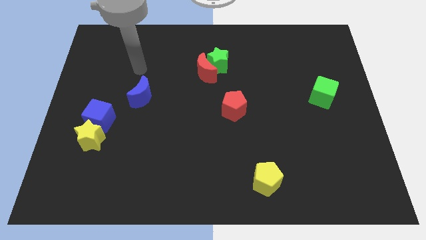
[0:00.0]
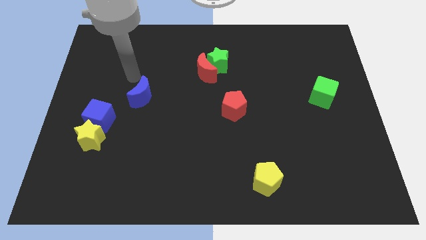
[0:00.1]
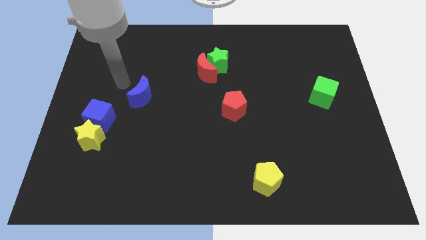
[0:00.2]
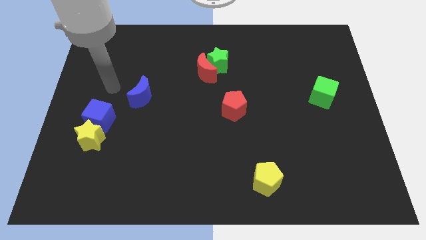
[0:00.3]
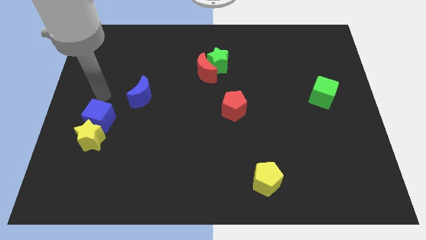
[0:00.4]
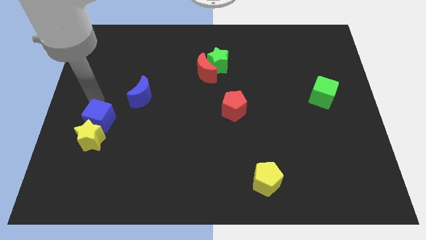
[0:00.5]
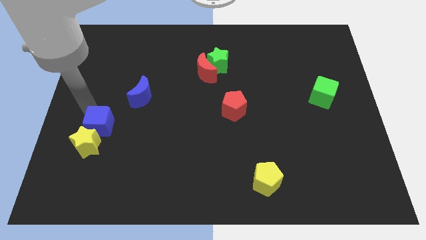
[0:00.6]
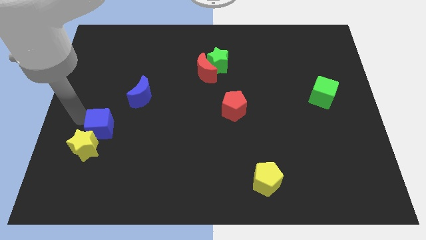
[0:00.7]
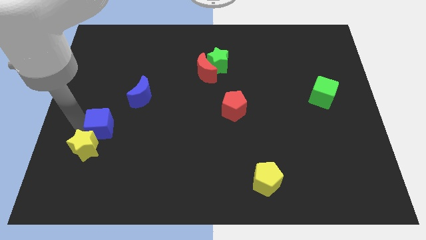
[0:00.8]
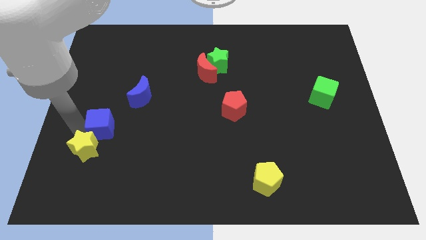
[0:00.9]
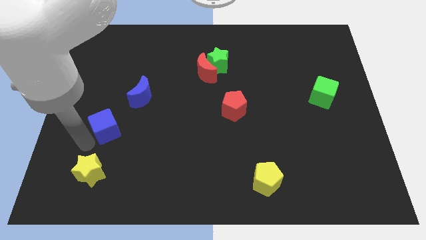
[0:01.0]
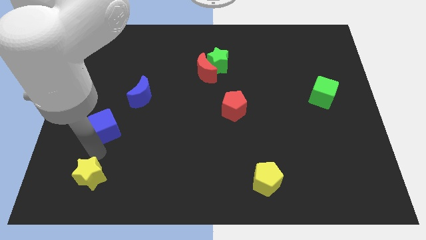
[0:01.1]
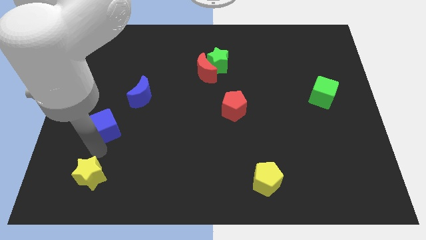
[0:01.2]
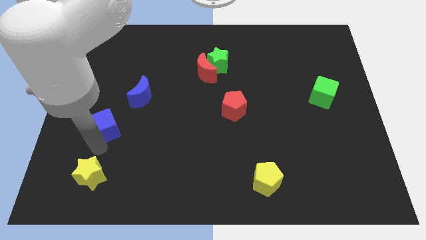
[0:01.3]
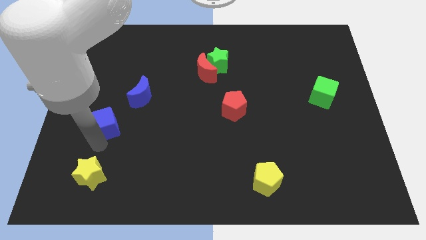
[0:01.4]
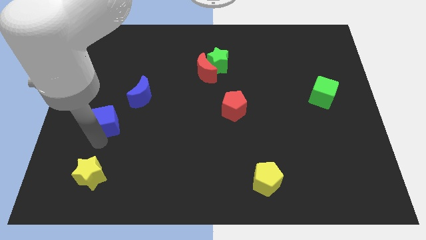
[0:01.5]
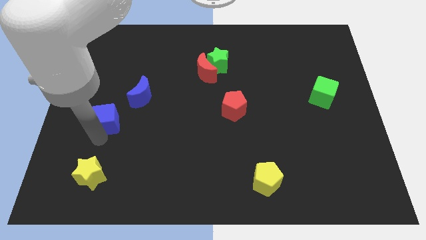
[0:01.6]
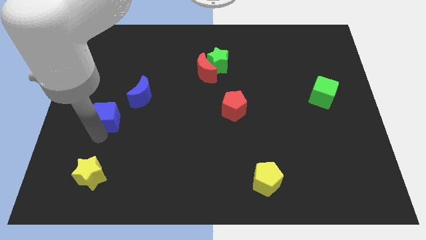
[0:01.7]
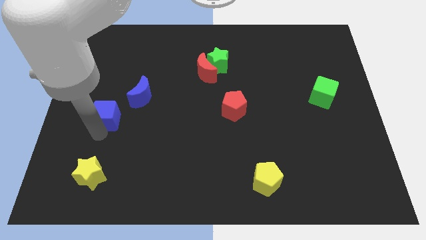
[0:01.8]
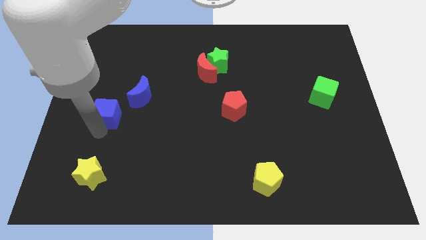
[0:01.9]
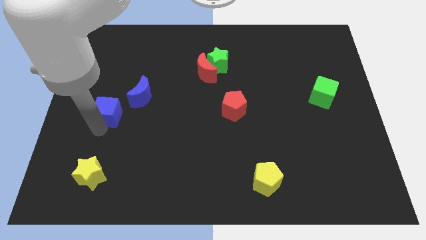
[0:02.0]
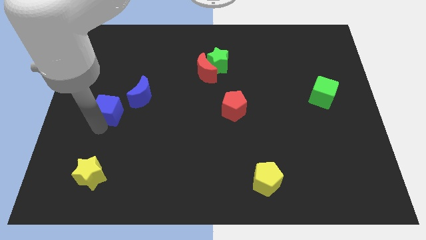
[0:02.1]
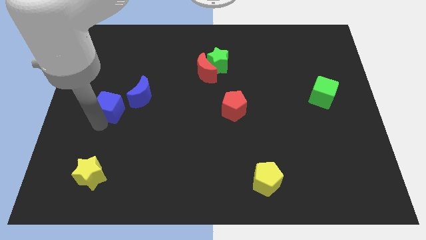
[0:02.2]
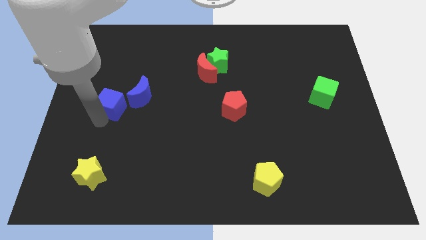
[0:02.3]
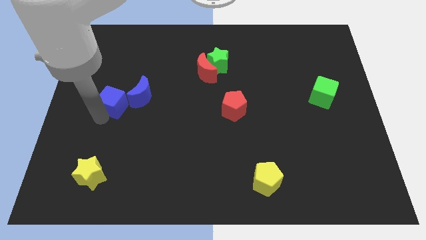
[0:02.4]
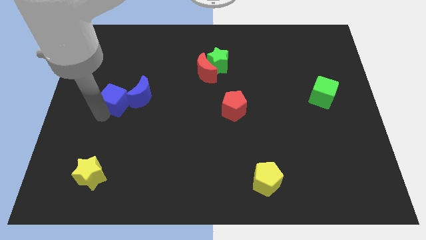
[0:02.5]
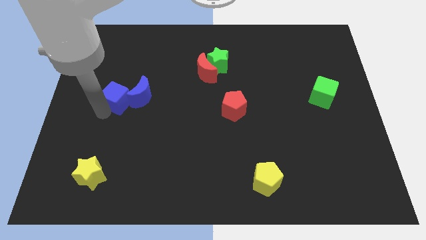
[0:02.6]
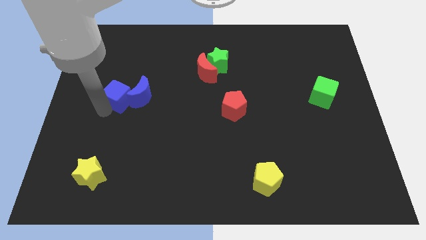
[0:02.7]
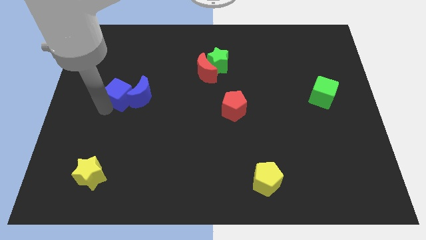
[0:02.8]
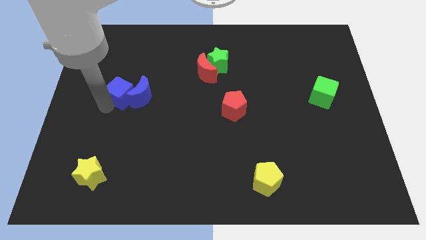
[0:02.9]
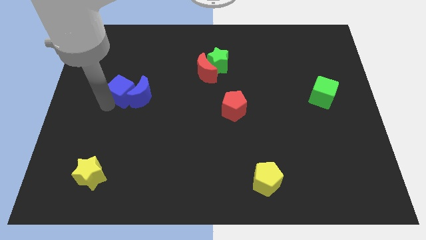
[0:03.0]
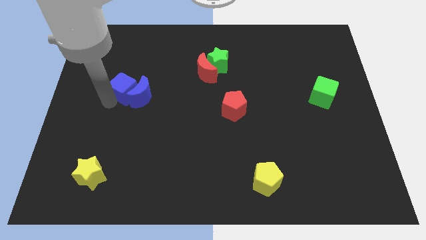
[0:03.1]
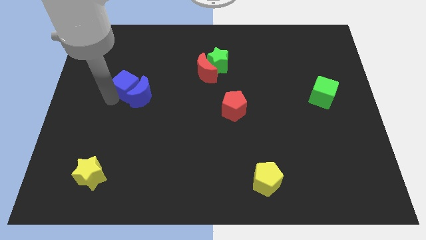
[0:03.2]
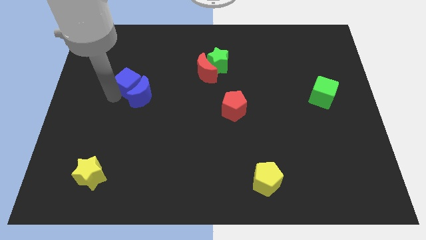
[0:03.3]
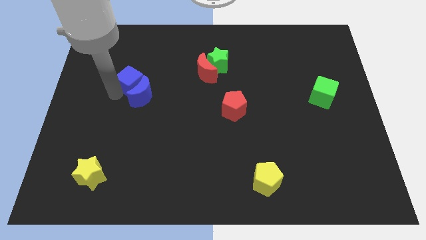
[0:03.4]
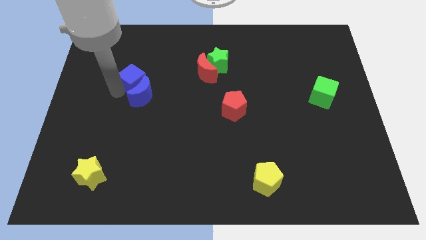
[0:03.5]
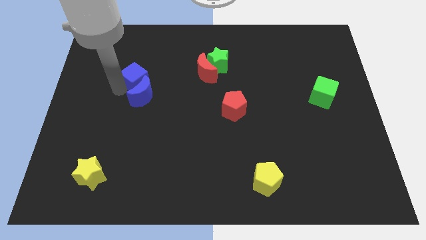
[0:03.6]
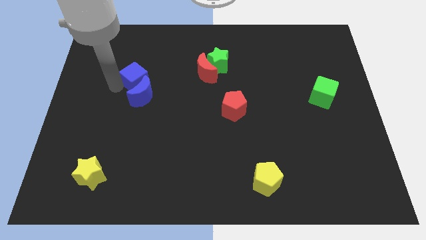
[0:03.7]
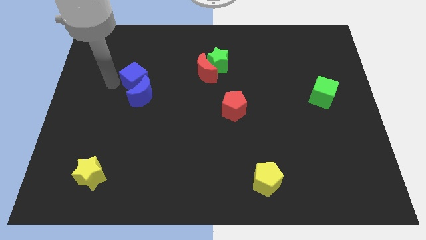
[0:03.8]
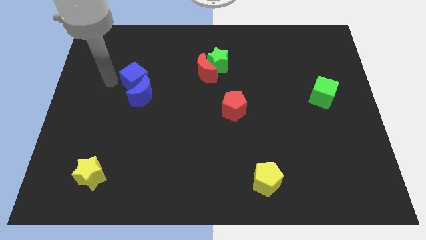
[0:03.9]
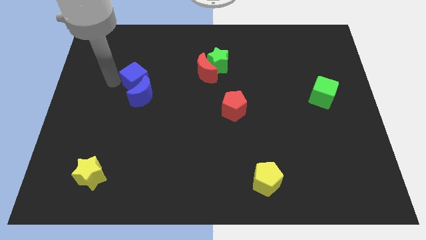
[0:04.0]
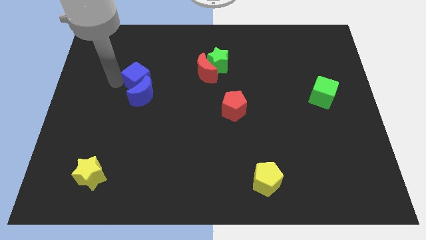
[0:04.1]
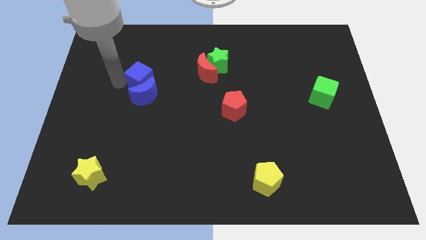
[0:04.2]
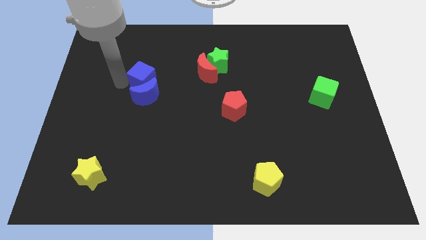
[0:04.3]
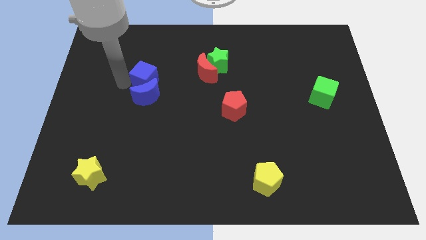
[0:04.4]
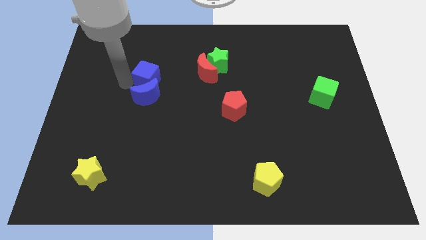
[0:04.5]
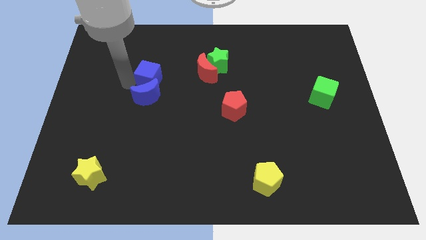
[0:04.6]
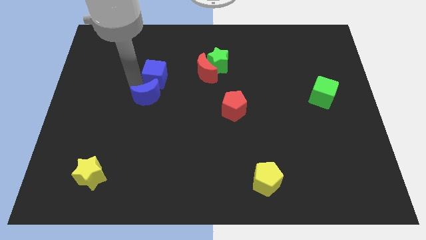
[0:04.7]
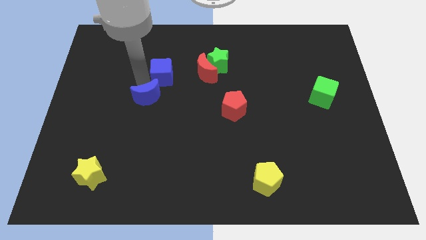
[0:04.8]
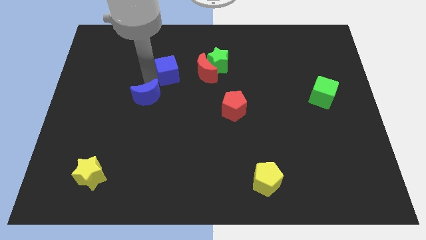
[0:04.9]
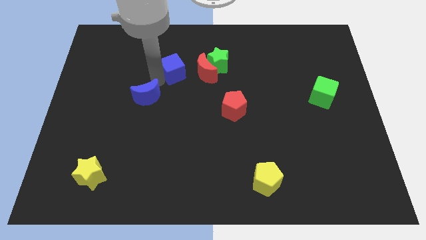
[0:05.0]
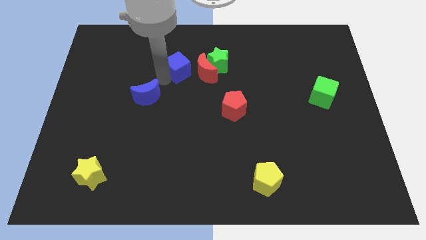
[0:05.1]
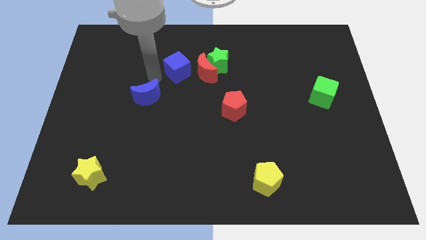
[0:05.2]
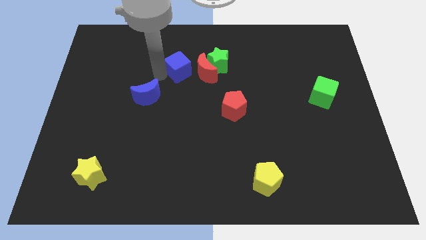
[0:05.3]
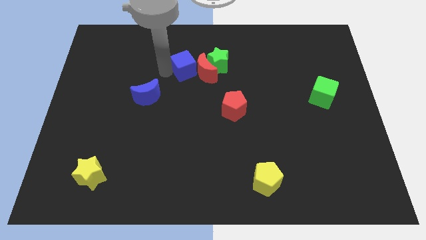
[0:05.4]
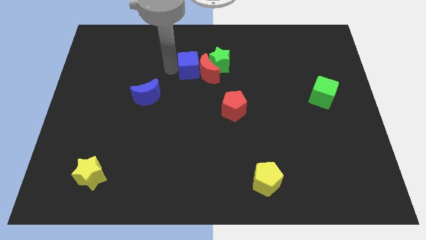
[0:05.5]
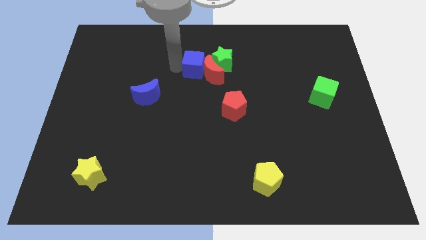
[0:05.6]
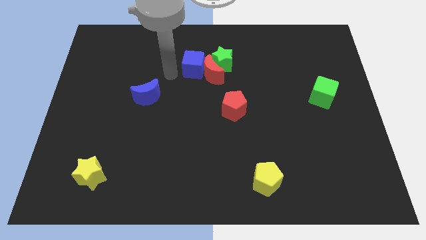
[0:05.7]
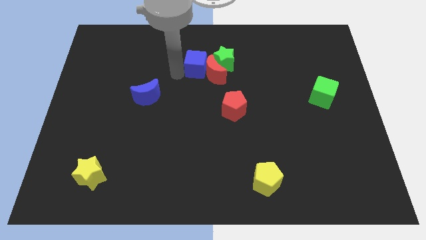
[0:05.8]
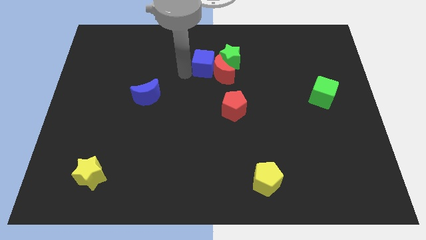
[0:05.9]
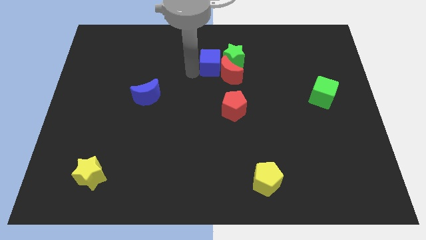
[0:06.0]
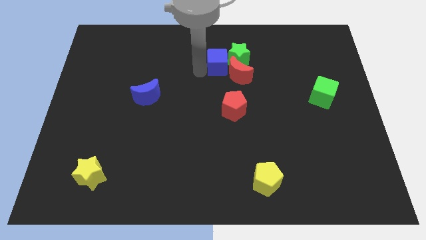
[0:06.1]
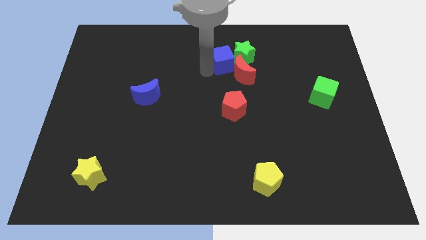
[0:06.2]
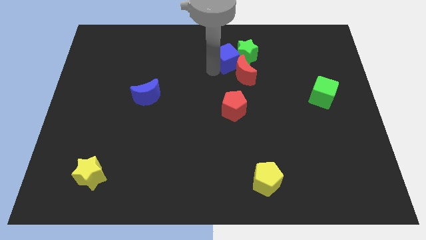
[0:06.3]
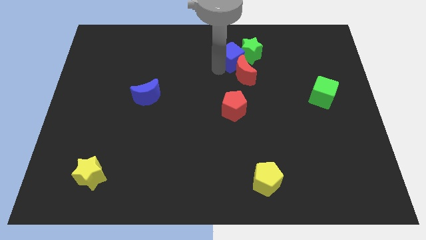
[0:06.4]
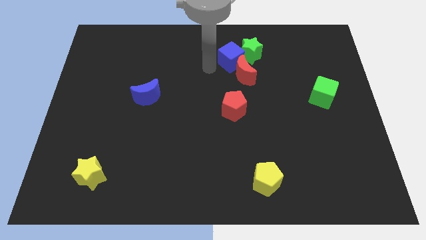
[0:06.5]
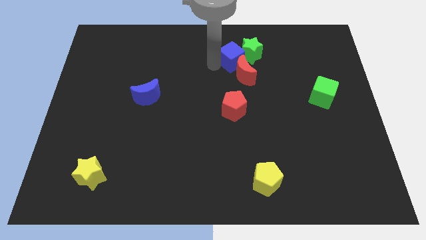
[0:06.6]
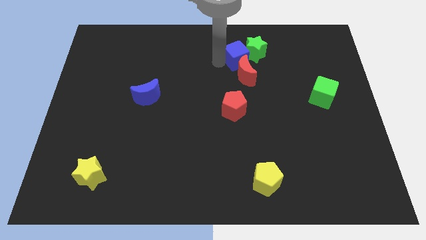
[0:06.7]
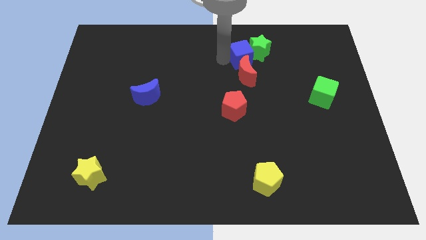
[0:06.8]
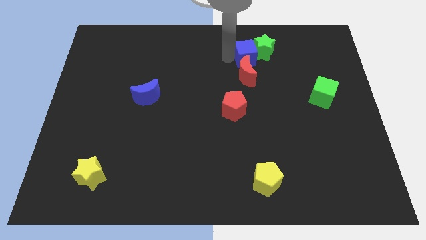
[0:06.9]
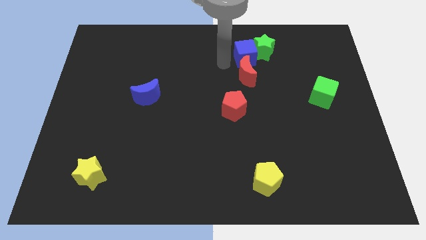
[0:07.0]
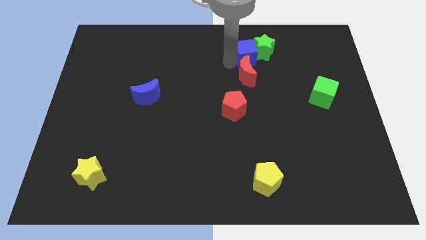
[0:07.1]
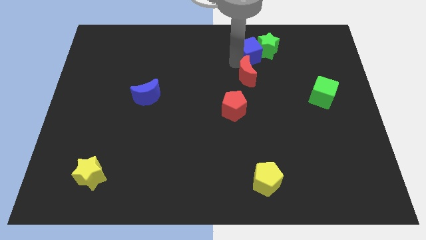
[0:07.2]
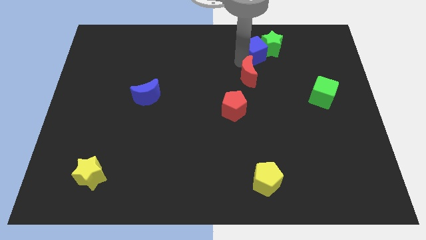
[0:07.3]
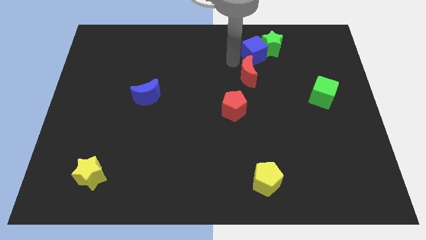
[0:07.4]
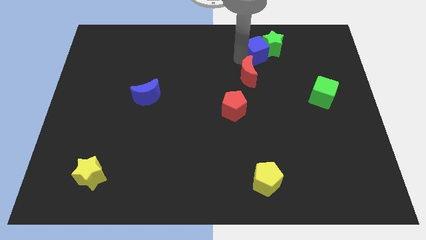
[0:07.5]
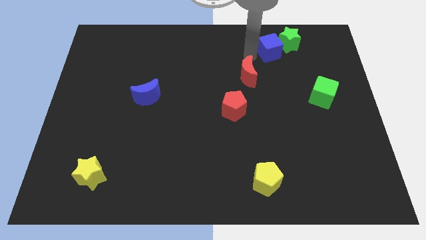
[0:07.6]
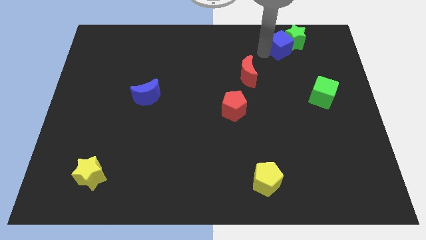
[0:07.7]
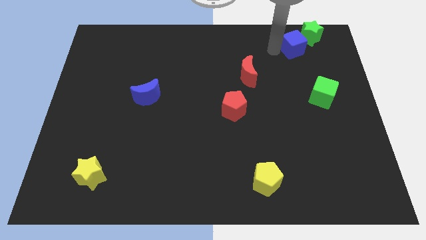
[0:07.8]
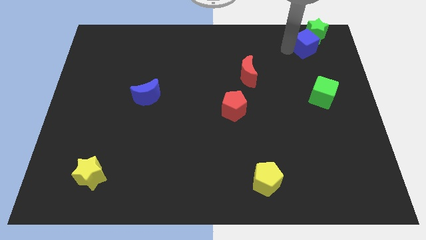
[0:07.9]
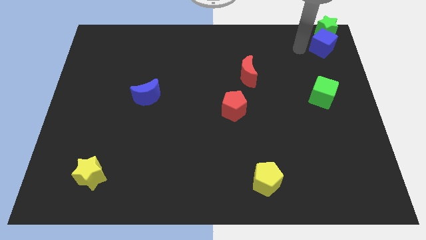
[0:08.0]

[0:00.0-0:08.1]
move the blue cube to the top right of the board
